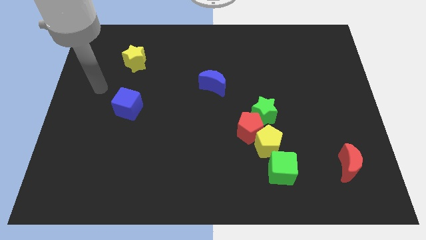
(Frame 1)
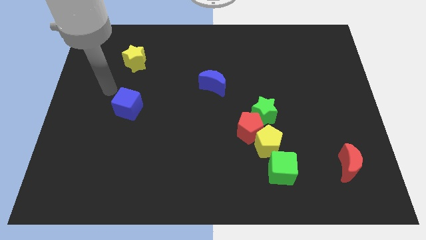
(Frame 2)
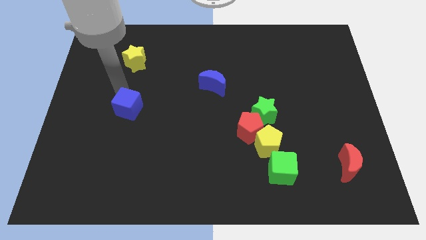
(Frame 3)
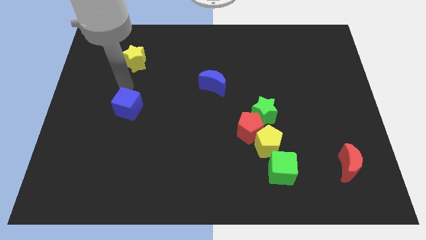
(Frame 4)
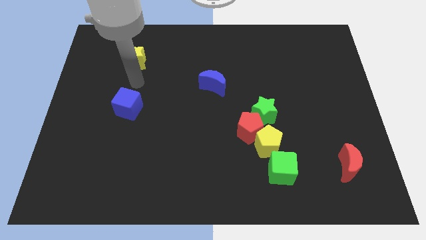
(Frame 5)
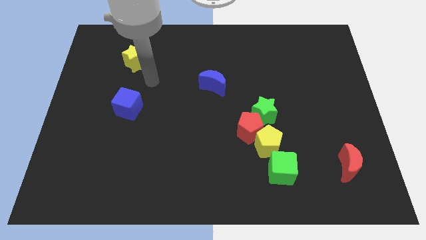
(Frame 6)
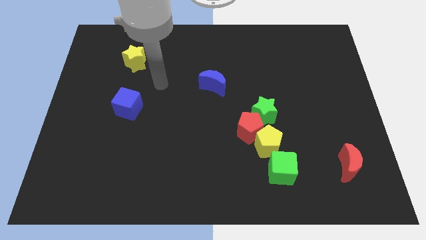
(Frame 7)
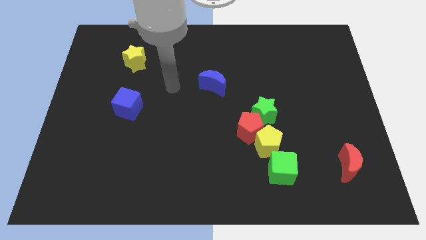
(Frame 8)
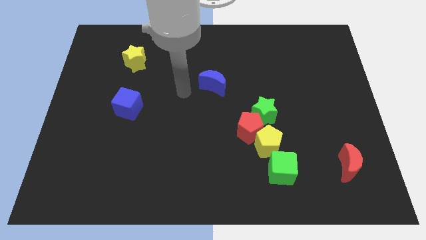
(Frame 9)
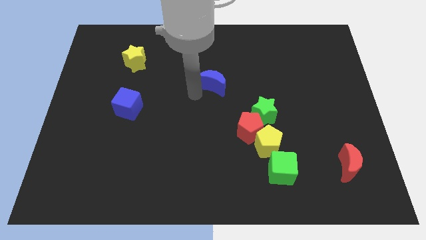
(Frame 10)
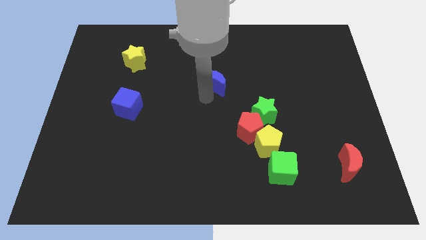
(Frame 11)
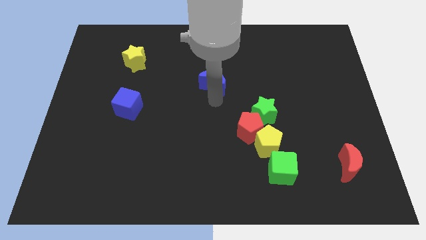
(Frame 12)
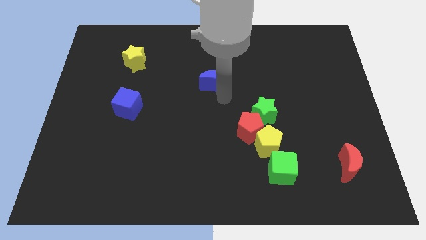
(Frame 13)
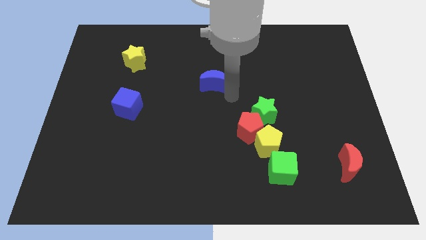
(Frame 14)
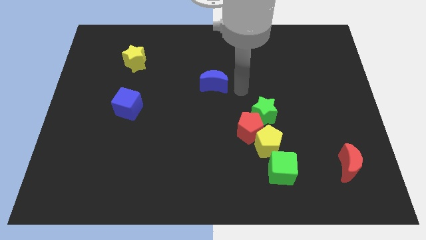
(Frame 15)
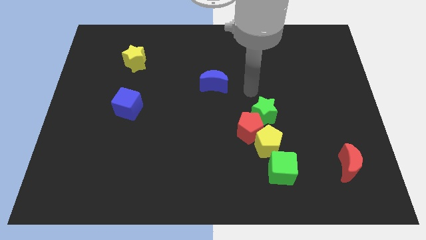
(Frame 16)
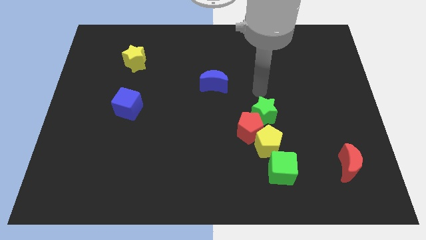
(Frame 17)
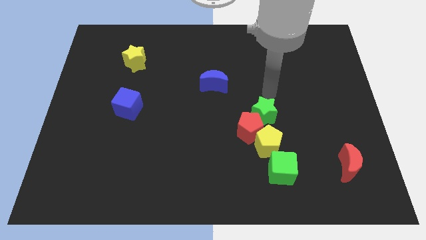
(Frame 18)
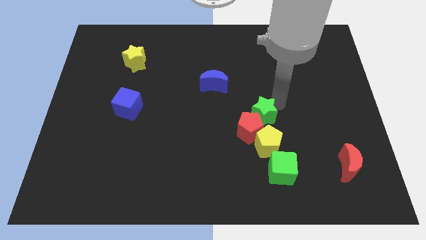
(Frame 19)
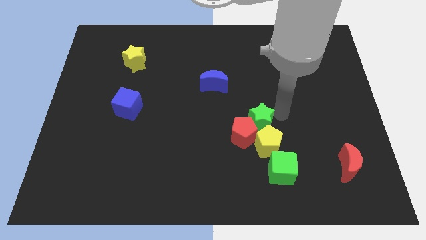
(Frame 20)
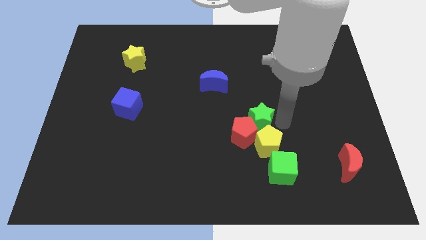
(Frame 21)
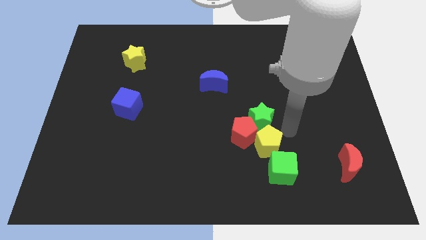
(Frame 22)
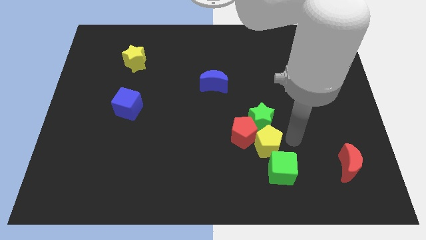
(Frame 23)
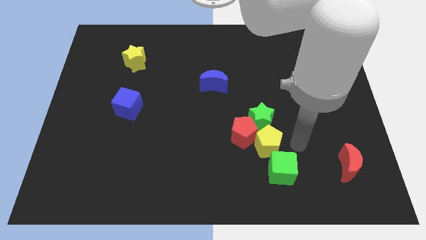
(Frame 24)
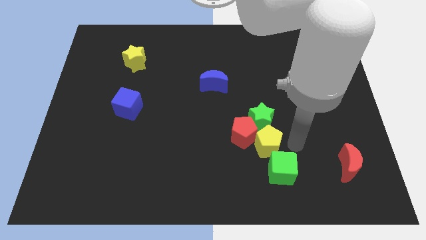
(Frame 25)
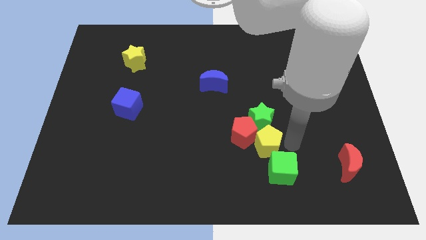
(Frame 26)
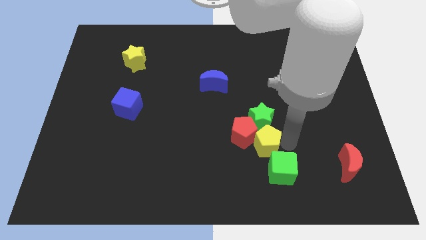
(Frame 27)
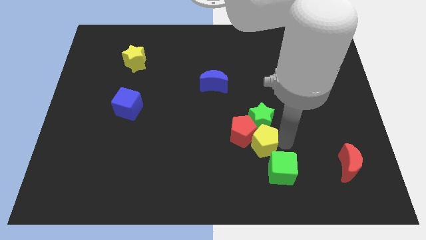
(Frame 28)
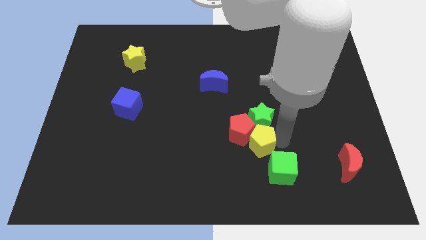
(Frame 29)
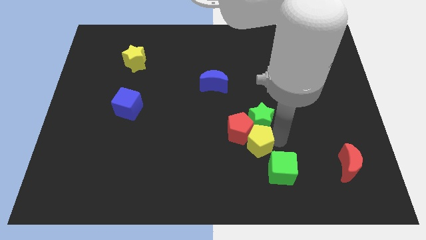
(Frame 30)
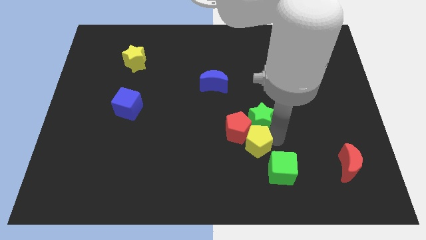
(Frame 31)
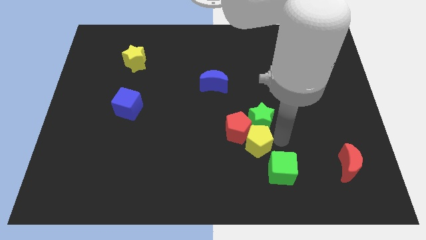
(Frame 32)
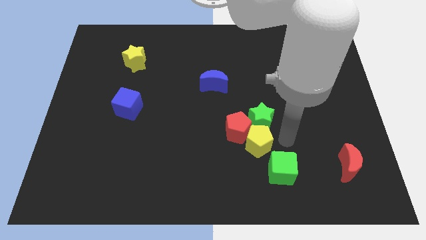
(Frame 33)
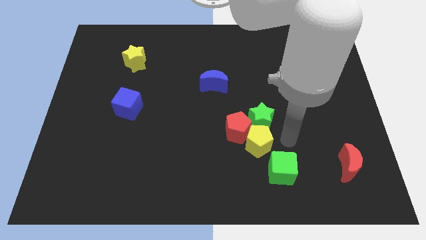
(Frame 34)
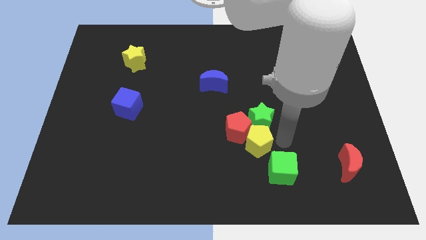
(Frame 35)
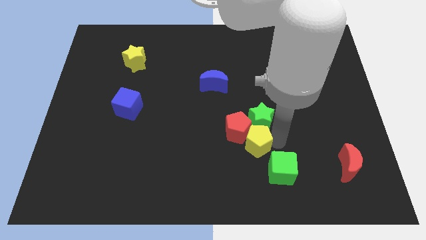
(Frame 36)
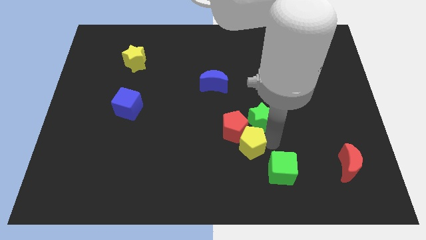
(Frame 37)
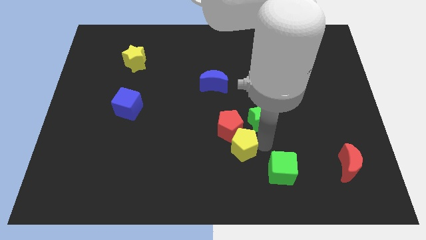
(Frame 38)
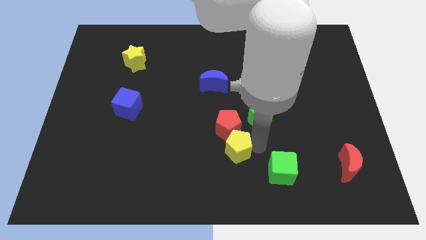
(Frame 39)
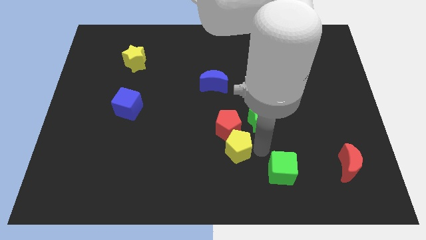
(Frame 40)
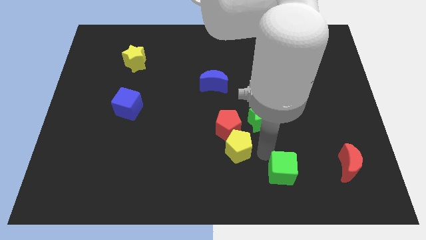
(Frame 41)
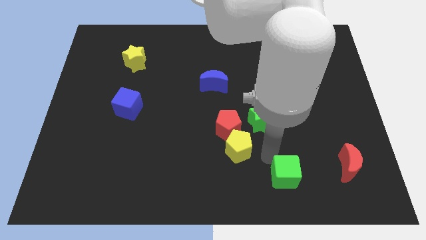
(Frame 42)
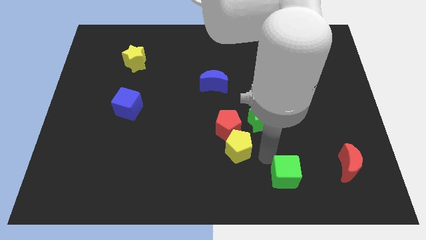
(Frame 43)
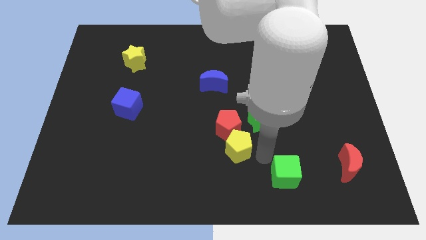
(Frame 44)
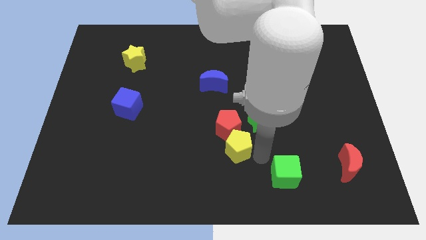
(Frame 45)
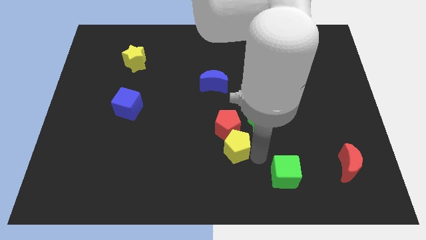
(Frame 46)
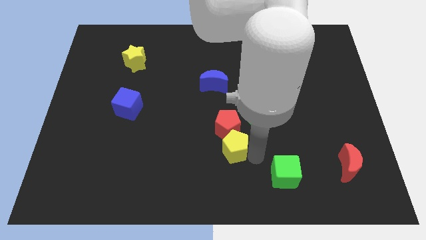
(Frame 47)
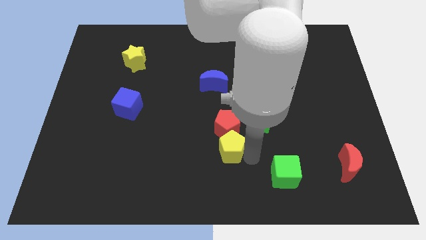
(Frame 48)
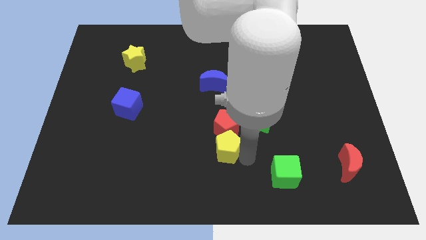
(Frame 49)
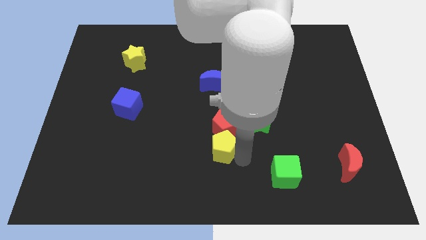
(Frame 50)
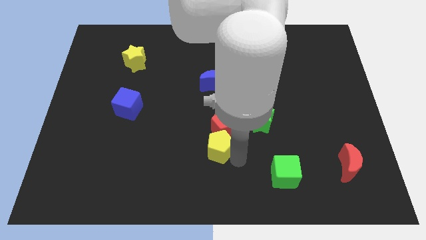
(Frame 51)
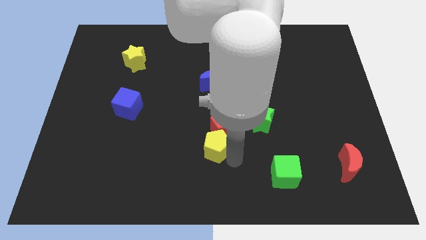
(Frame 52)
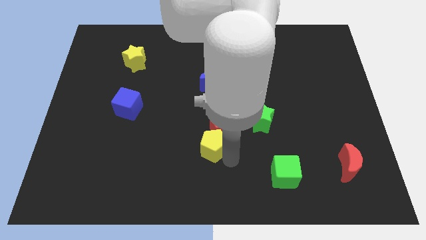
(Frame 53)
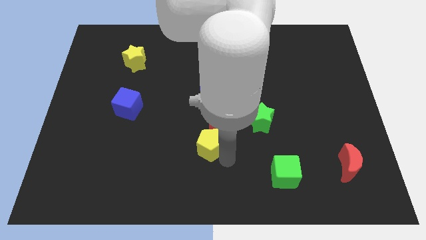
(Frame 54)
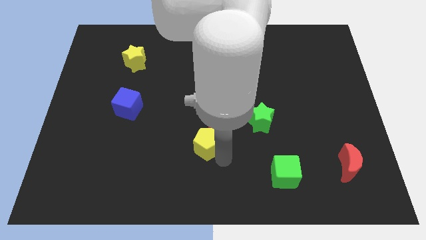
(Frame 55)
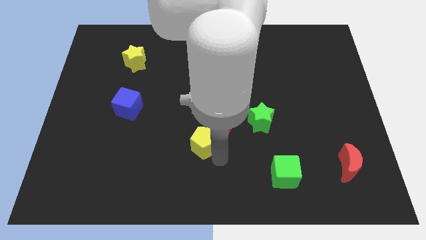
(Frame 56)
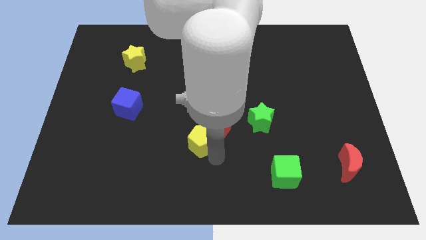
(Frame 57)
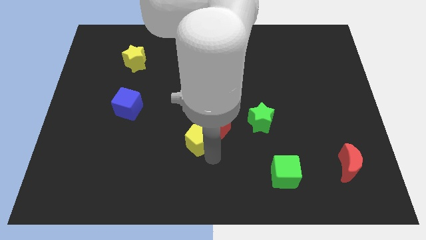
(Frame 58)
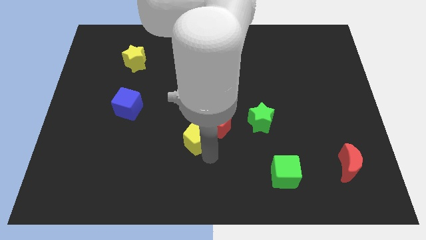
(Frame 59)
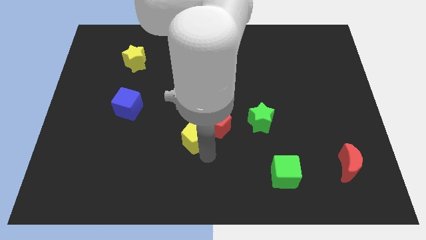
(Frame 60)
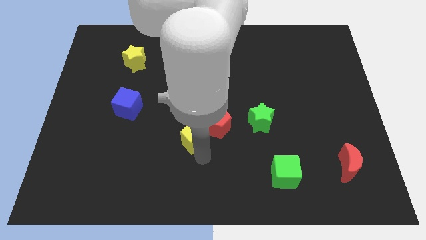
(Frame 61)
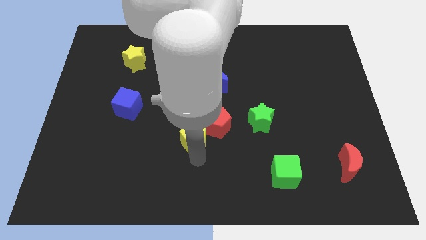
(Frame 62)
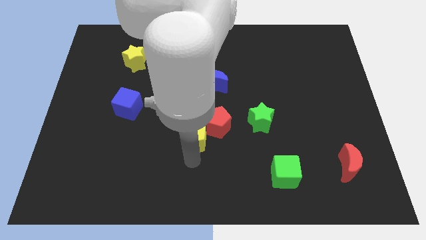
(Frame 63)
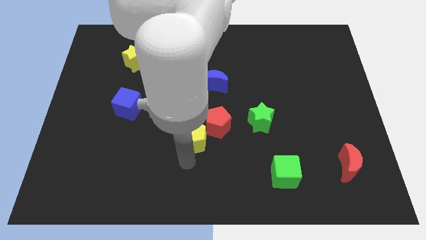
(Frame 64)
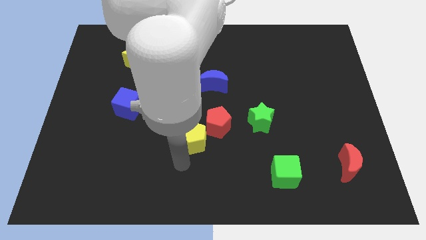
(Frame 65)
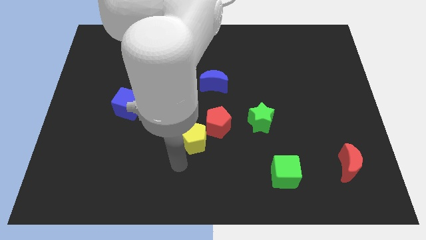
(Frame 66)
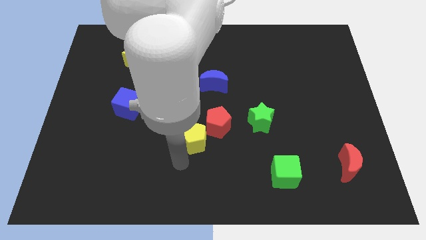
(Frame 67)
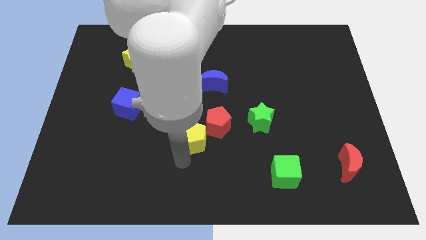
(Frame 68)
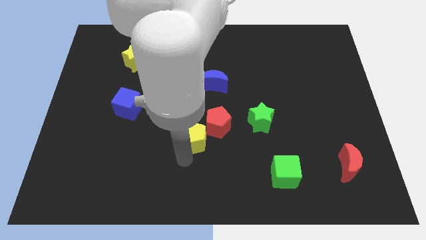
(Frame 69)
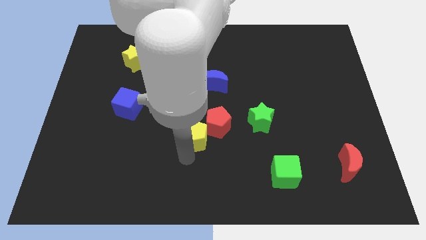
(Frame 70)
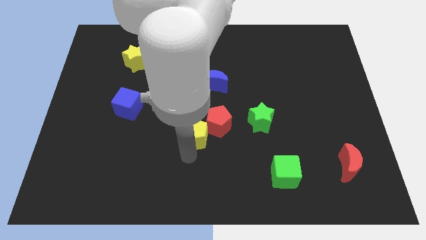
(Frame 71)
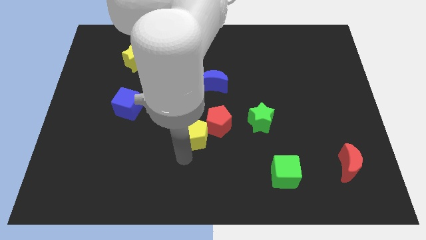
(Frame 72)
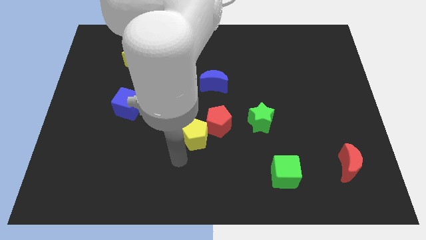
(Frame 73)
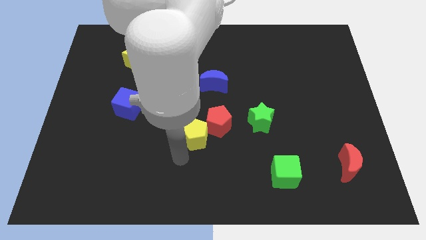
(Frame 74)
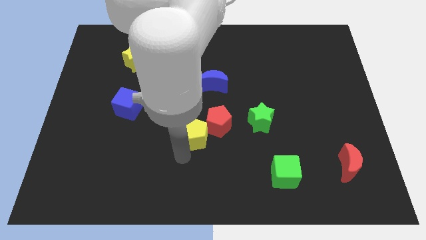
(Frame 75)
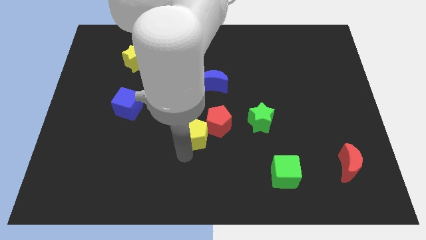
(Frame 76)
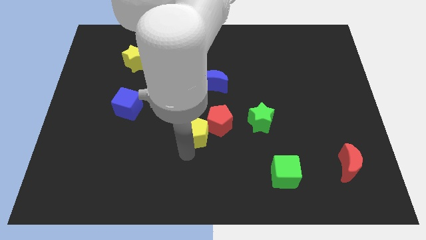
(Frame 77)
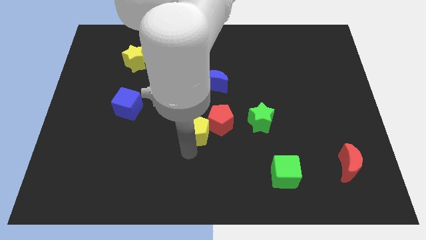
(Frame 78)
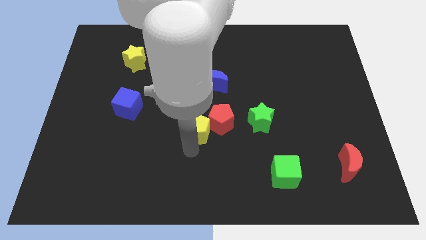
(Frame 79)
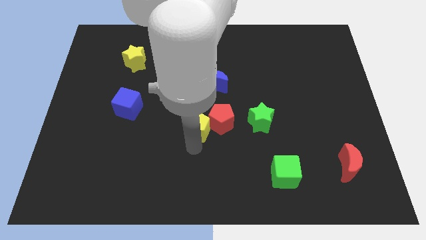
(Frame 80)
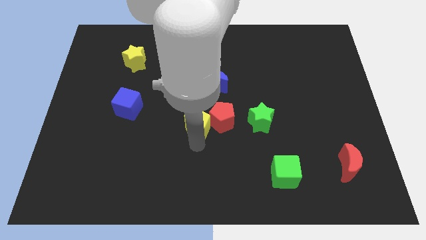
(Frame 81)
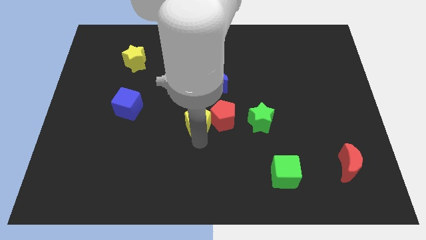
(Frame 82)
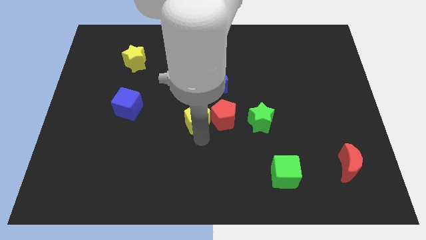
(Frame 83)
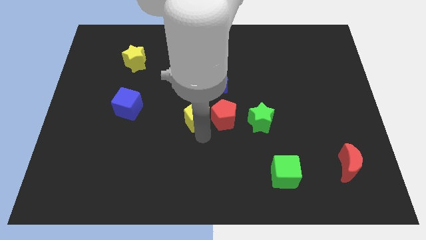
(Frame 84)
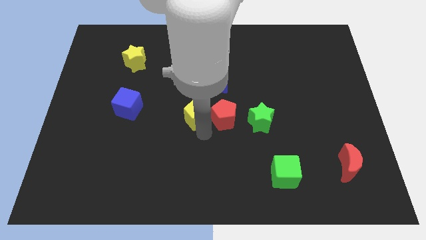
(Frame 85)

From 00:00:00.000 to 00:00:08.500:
move the yellow pentagon to the bottom left of the blue moon
